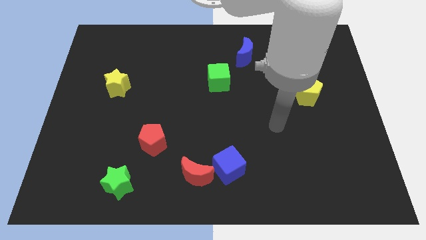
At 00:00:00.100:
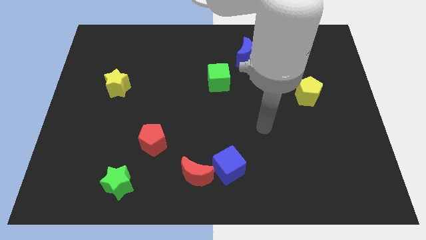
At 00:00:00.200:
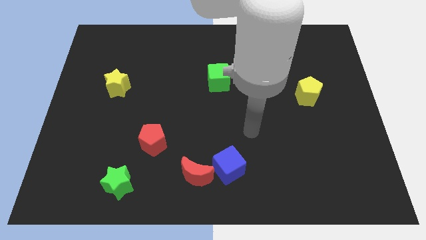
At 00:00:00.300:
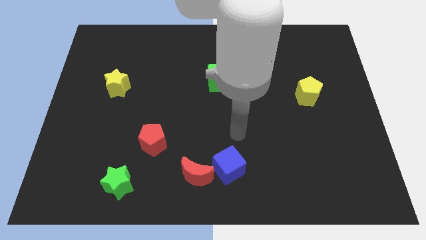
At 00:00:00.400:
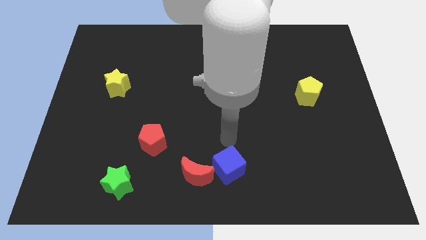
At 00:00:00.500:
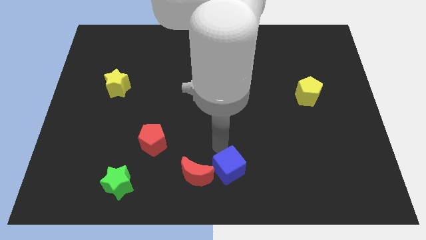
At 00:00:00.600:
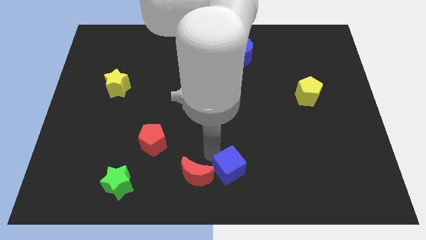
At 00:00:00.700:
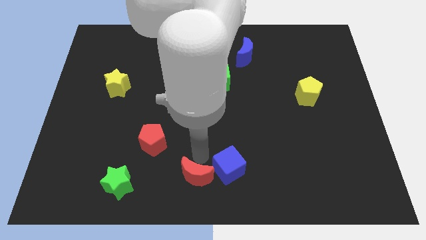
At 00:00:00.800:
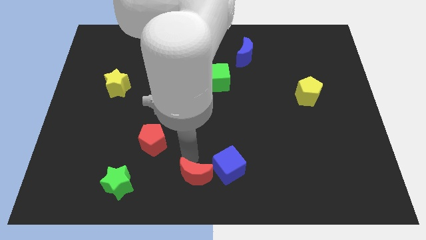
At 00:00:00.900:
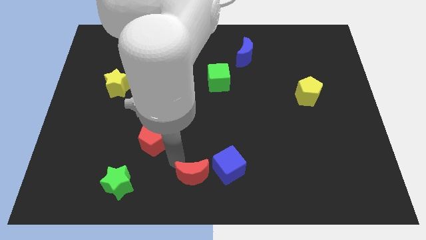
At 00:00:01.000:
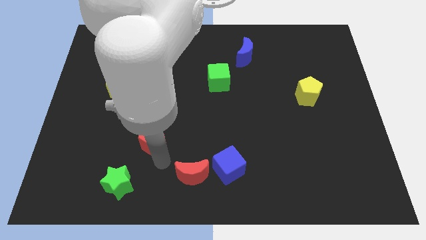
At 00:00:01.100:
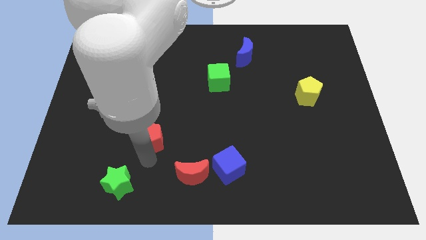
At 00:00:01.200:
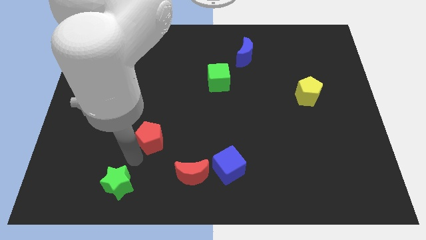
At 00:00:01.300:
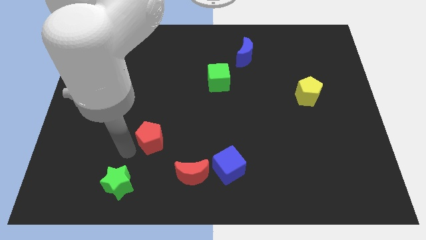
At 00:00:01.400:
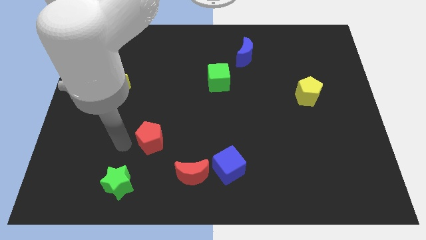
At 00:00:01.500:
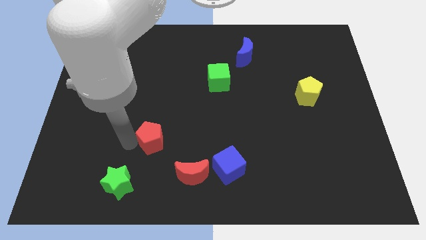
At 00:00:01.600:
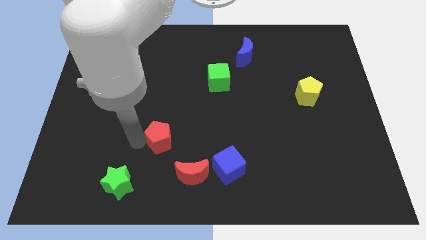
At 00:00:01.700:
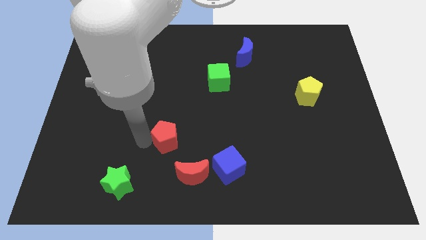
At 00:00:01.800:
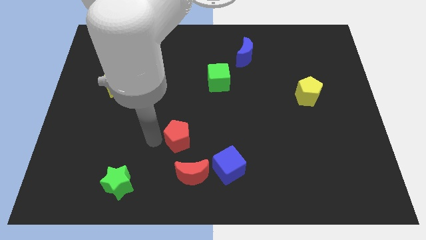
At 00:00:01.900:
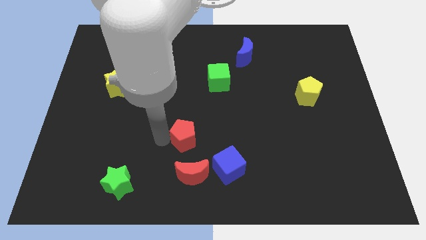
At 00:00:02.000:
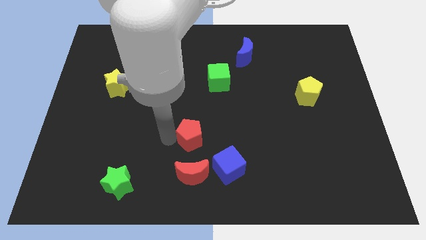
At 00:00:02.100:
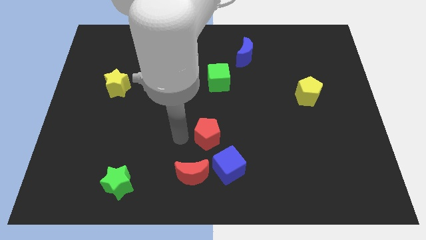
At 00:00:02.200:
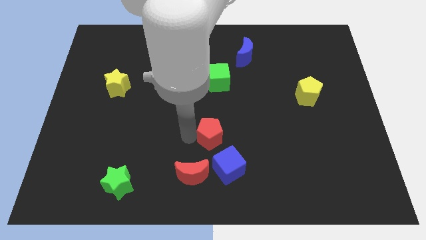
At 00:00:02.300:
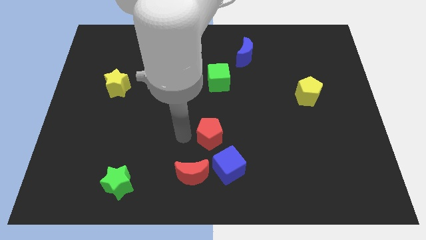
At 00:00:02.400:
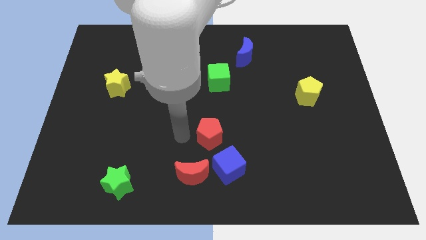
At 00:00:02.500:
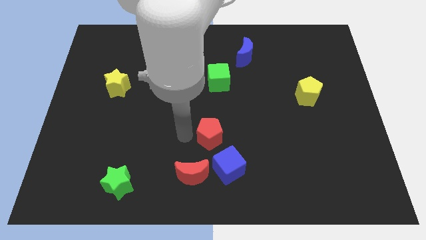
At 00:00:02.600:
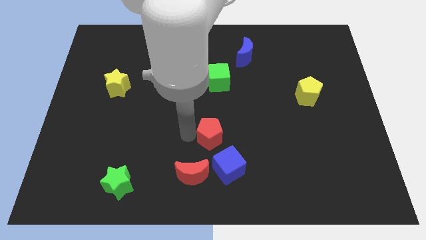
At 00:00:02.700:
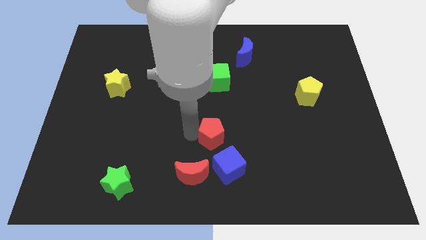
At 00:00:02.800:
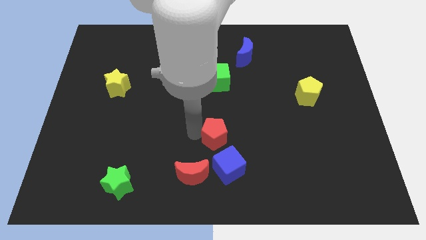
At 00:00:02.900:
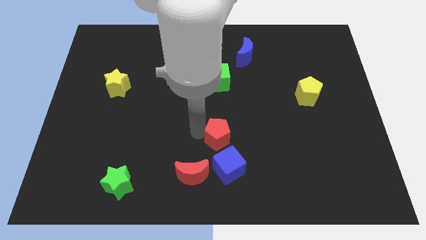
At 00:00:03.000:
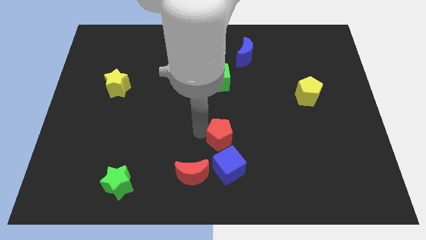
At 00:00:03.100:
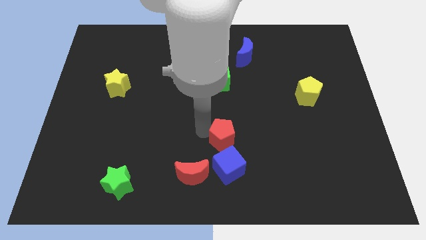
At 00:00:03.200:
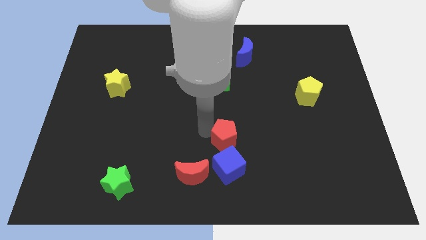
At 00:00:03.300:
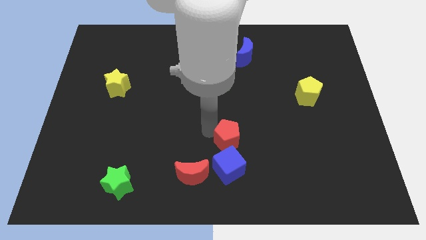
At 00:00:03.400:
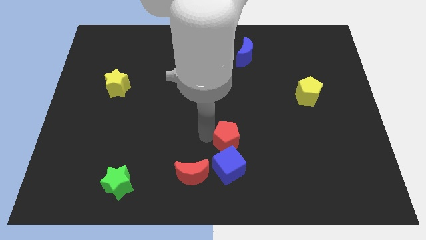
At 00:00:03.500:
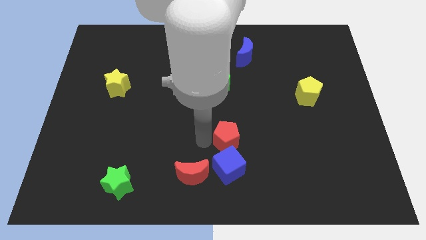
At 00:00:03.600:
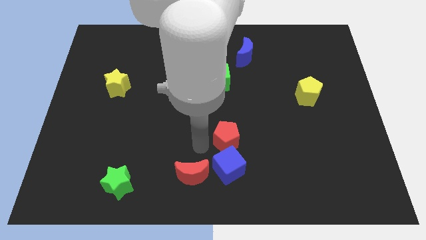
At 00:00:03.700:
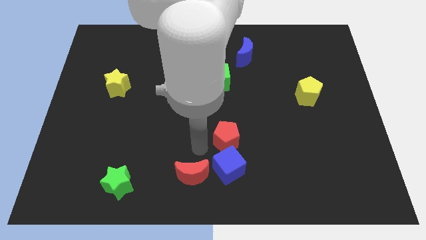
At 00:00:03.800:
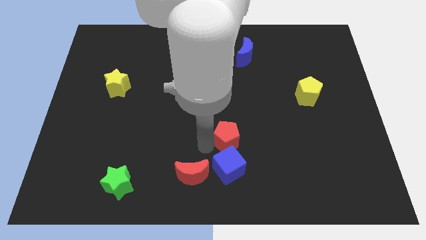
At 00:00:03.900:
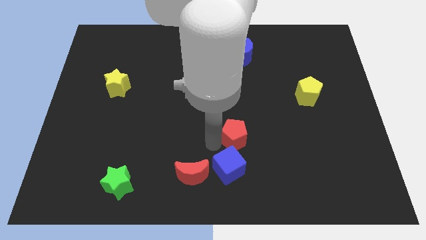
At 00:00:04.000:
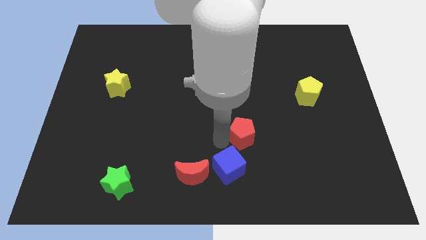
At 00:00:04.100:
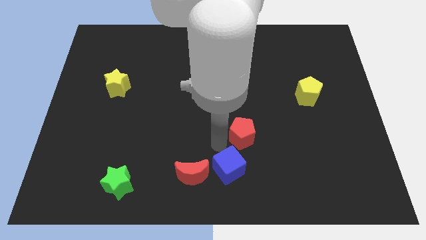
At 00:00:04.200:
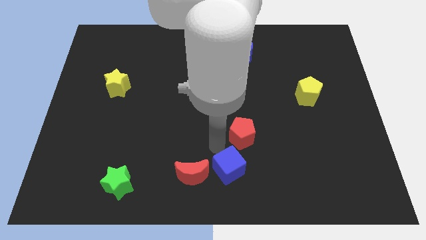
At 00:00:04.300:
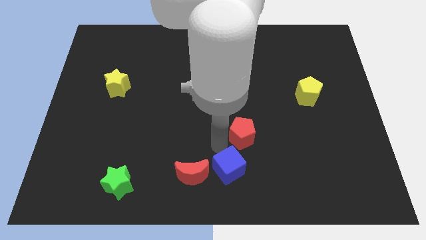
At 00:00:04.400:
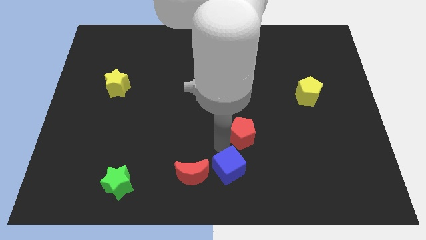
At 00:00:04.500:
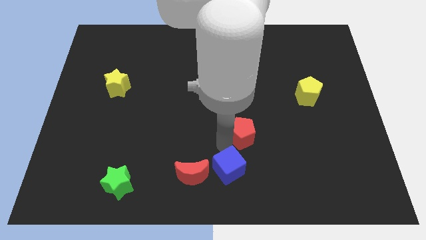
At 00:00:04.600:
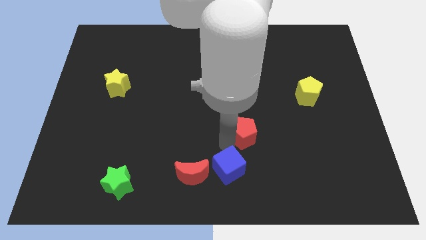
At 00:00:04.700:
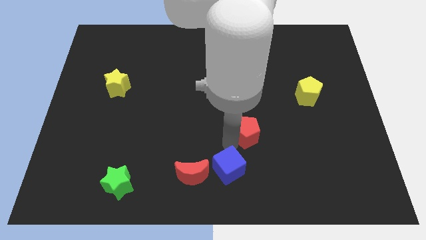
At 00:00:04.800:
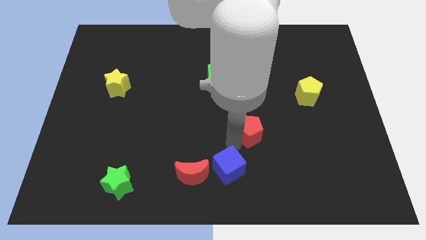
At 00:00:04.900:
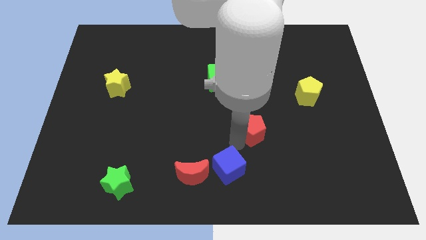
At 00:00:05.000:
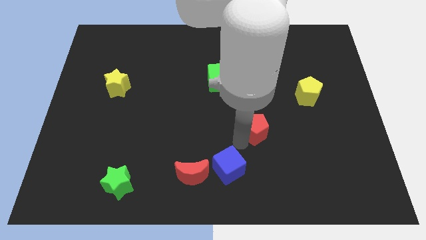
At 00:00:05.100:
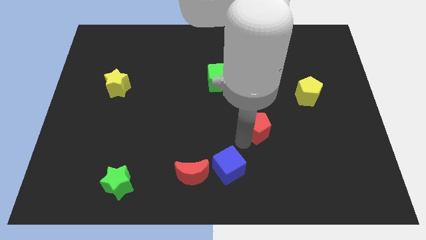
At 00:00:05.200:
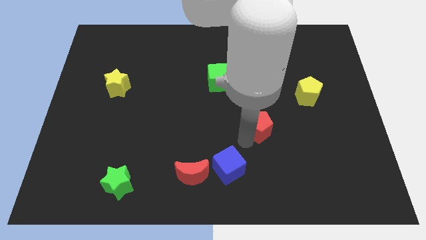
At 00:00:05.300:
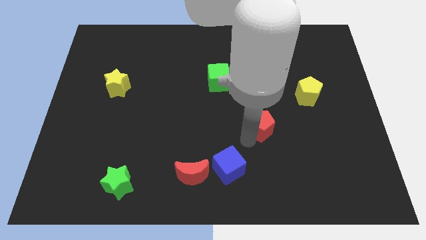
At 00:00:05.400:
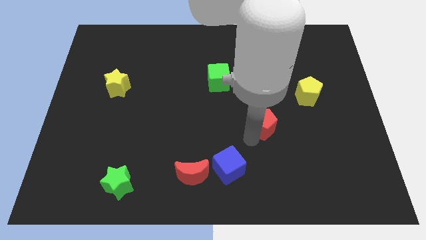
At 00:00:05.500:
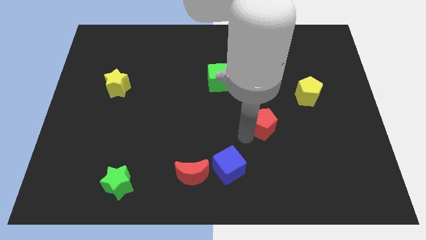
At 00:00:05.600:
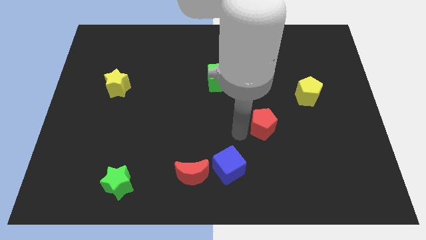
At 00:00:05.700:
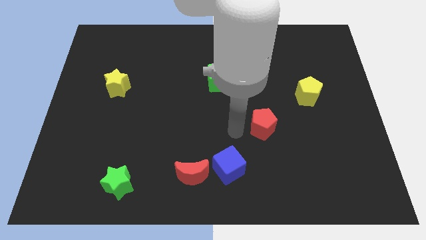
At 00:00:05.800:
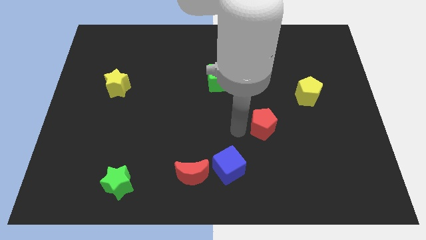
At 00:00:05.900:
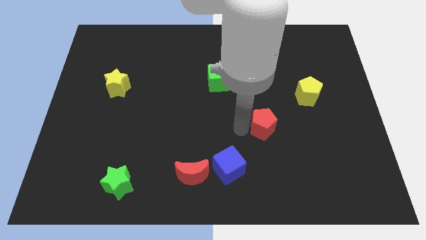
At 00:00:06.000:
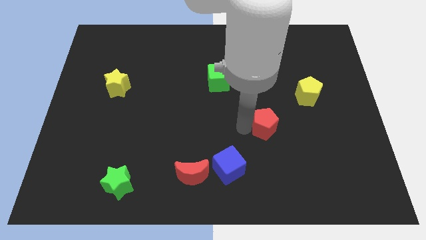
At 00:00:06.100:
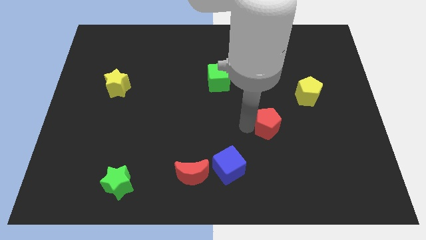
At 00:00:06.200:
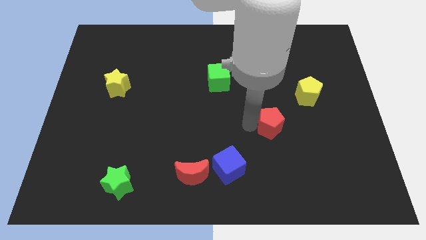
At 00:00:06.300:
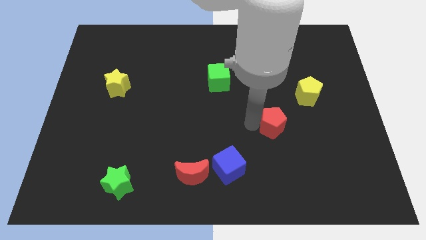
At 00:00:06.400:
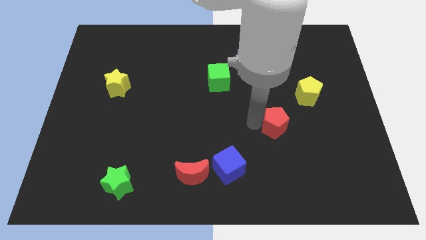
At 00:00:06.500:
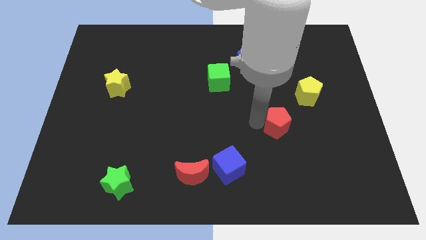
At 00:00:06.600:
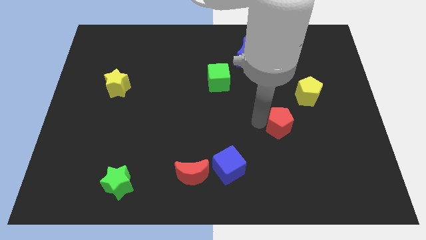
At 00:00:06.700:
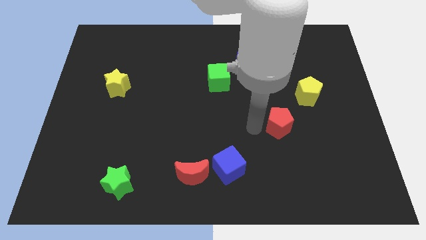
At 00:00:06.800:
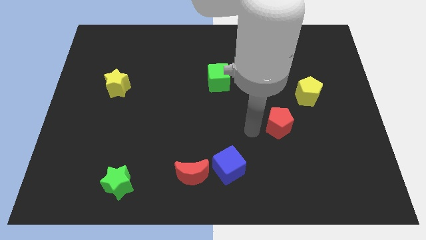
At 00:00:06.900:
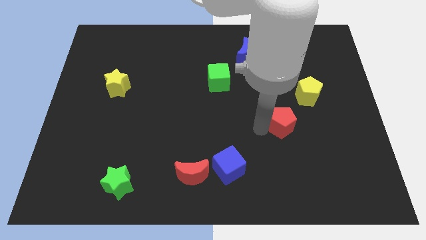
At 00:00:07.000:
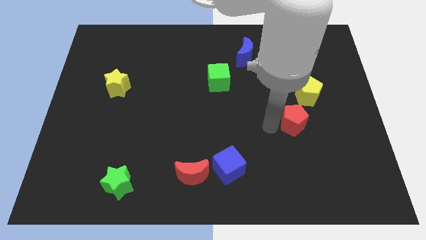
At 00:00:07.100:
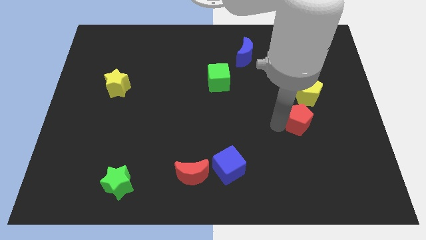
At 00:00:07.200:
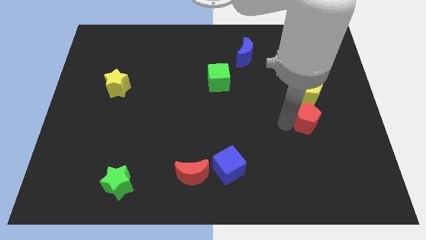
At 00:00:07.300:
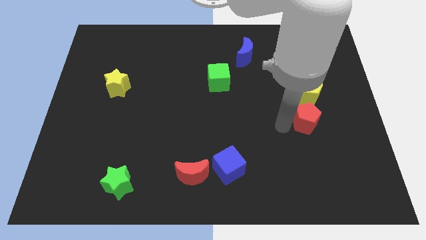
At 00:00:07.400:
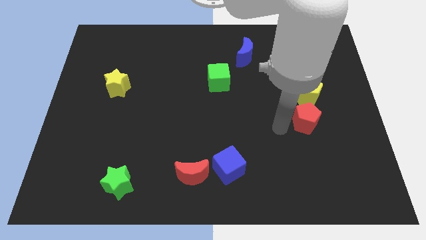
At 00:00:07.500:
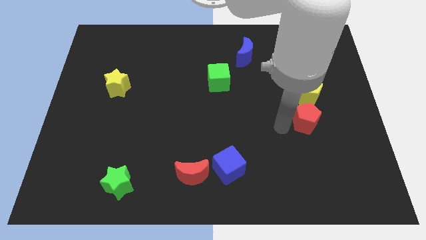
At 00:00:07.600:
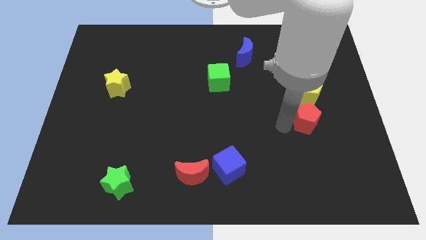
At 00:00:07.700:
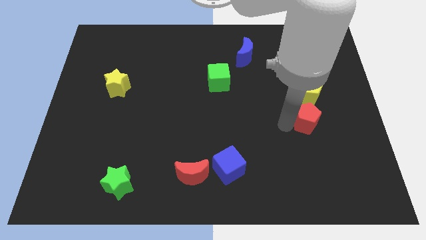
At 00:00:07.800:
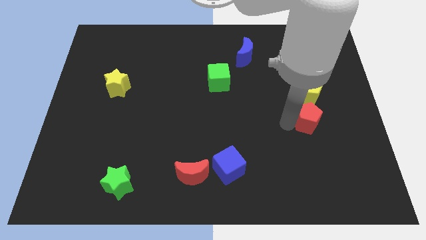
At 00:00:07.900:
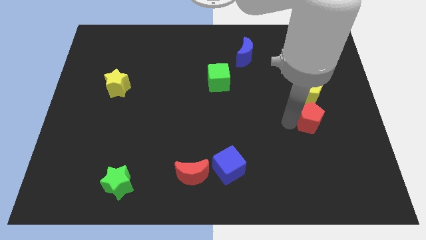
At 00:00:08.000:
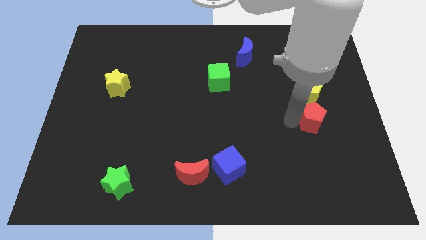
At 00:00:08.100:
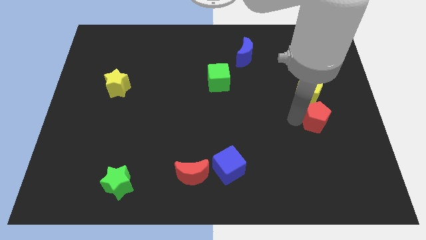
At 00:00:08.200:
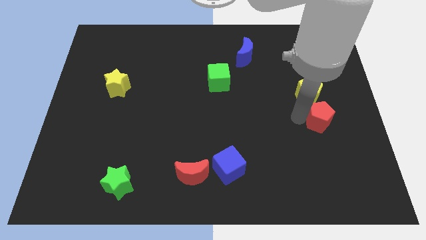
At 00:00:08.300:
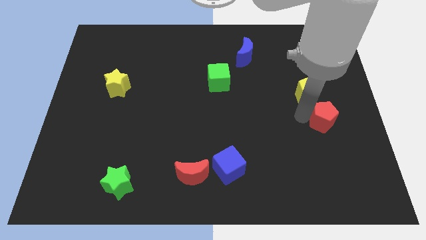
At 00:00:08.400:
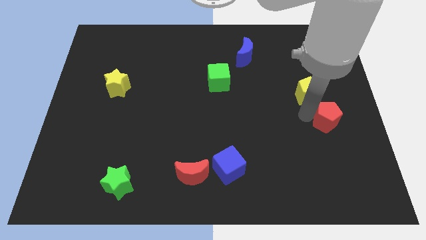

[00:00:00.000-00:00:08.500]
move the red pentagon to the center right
